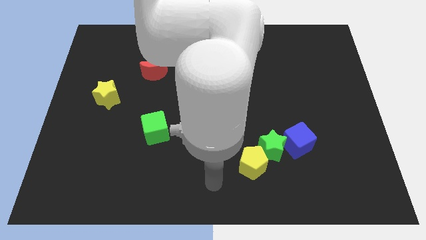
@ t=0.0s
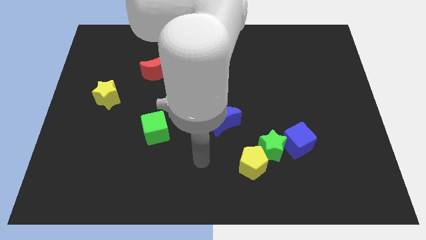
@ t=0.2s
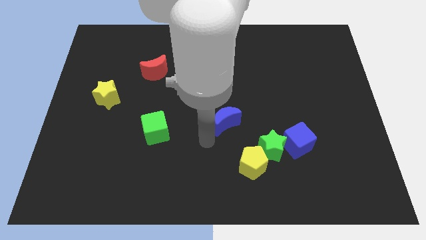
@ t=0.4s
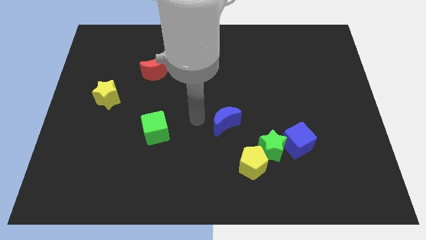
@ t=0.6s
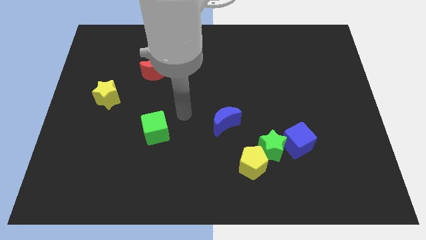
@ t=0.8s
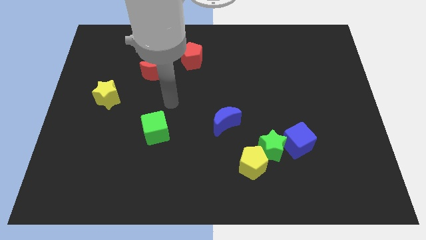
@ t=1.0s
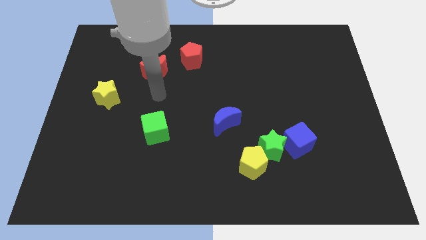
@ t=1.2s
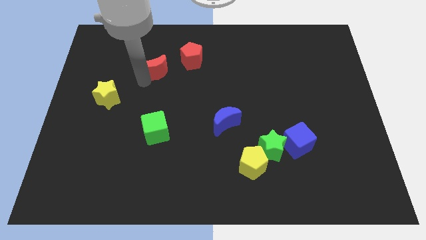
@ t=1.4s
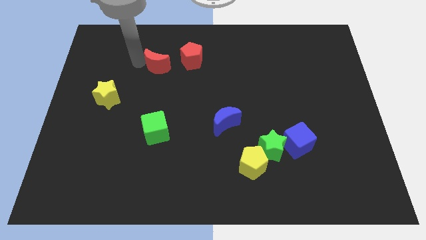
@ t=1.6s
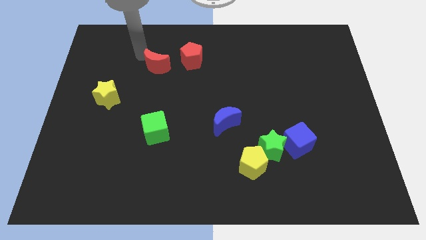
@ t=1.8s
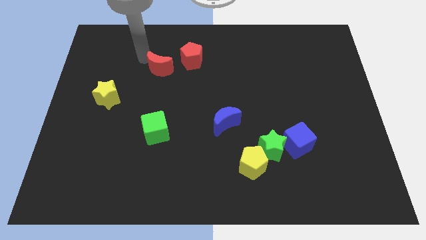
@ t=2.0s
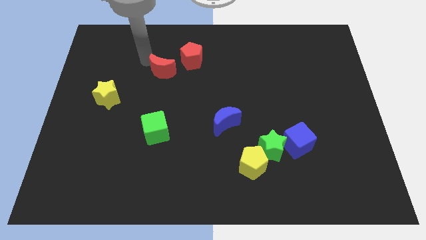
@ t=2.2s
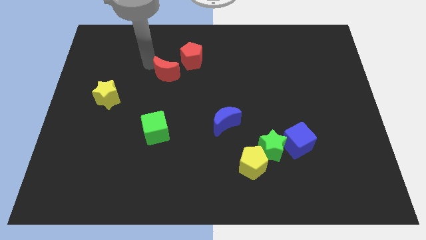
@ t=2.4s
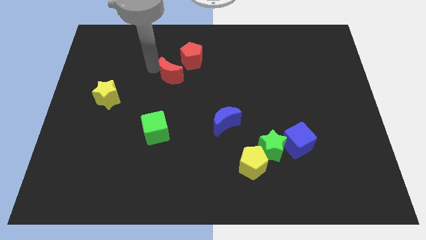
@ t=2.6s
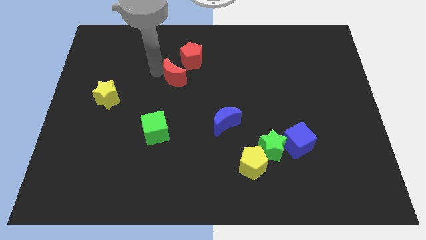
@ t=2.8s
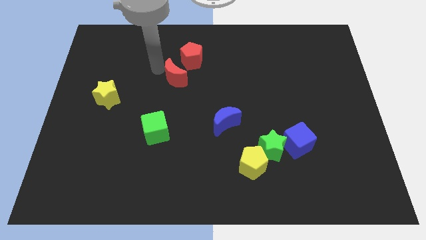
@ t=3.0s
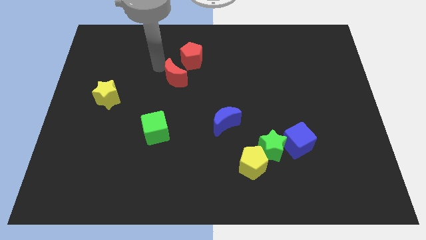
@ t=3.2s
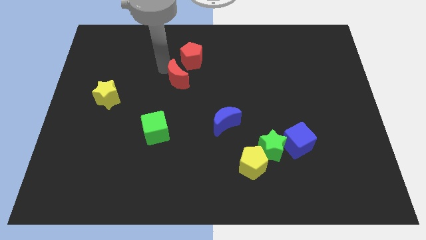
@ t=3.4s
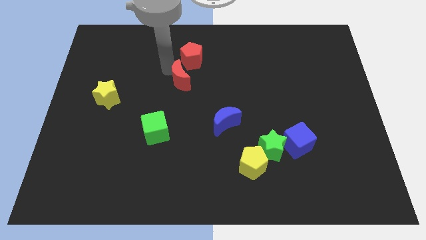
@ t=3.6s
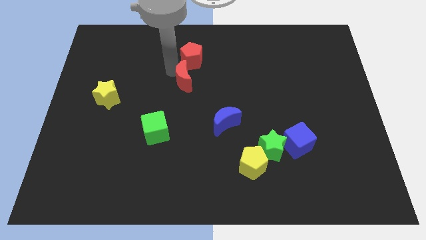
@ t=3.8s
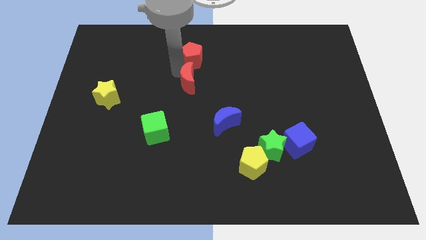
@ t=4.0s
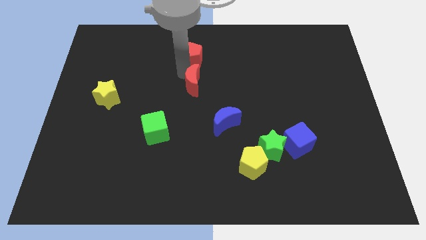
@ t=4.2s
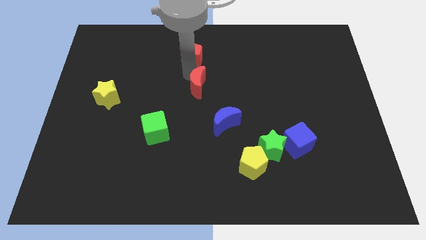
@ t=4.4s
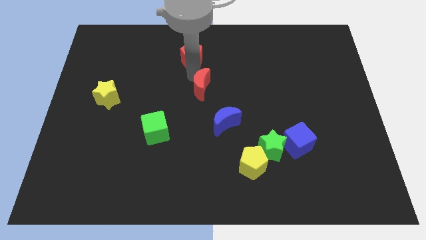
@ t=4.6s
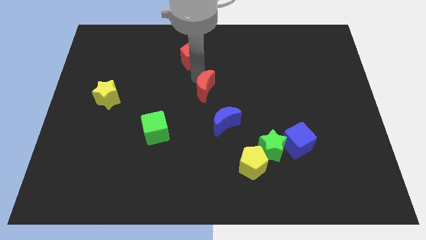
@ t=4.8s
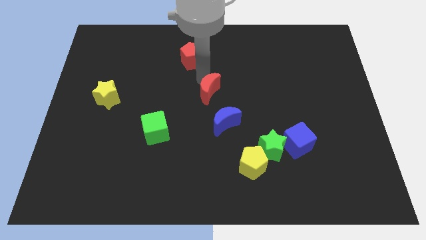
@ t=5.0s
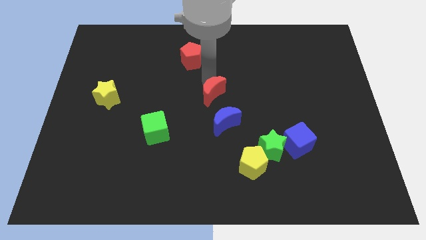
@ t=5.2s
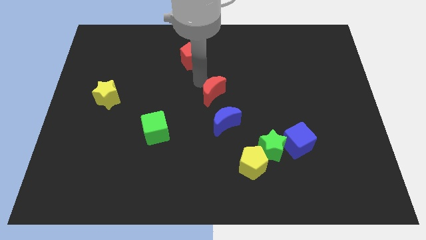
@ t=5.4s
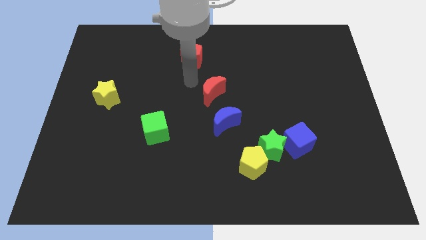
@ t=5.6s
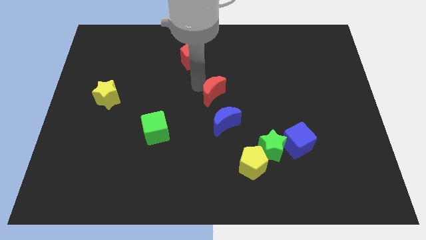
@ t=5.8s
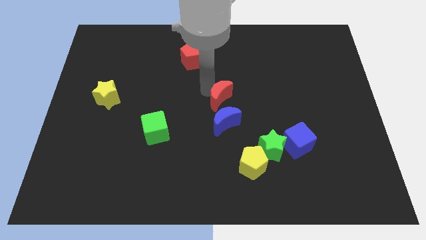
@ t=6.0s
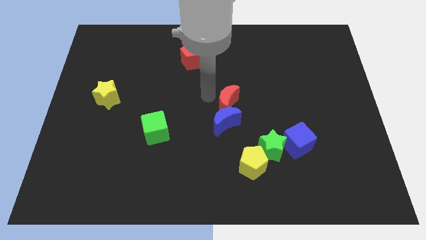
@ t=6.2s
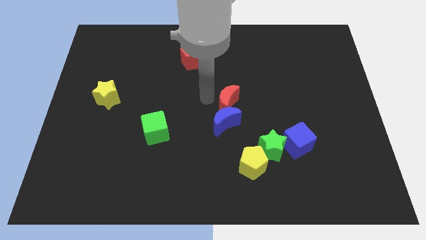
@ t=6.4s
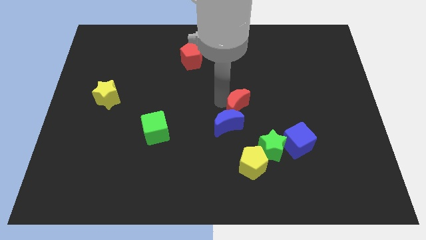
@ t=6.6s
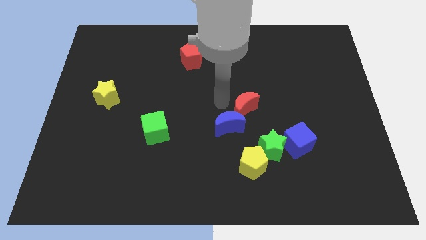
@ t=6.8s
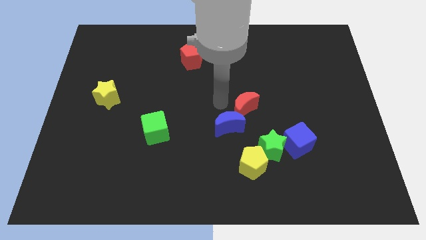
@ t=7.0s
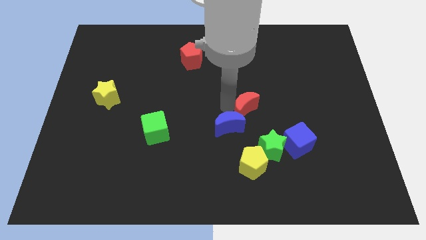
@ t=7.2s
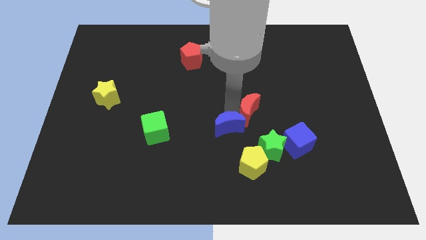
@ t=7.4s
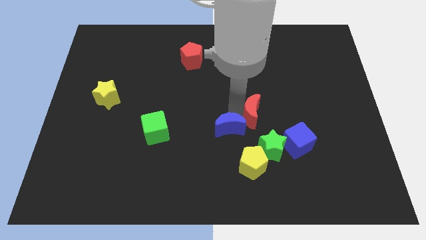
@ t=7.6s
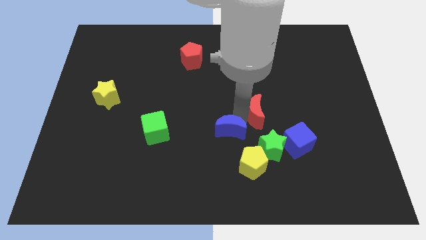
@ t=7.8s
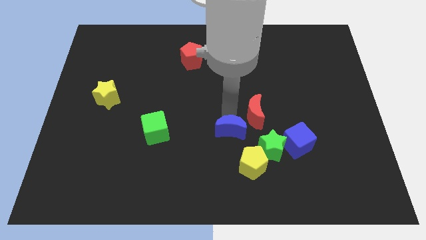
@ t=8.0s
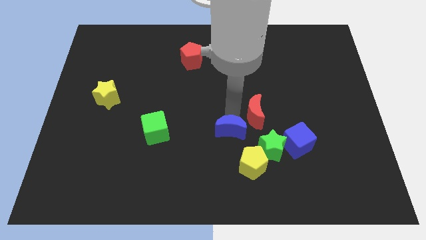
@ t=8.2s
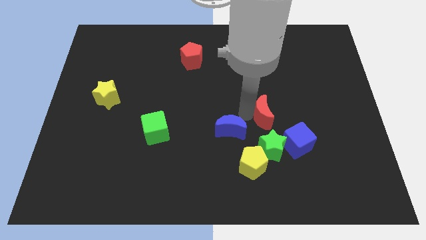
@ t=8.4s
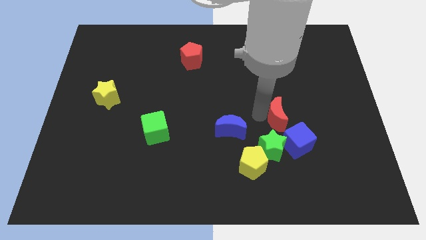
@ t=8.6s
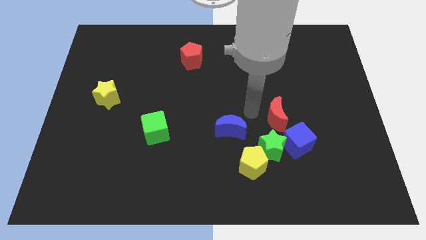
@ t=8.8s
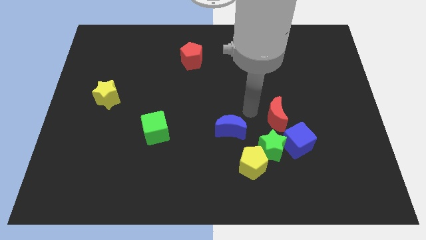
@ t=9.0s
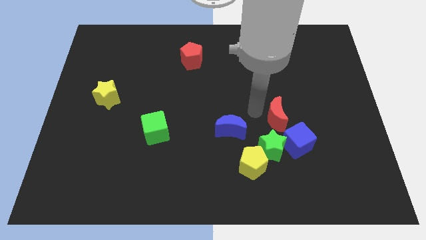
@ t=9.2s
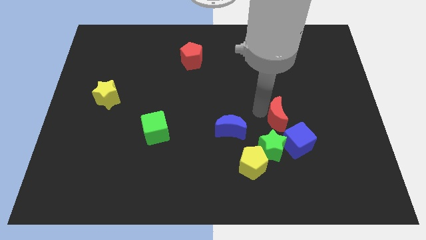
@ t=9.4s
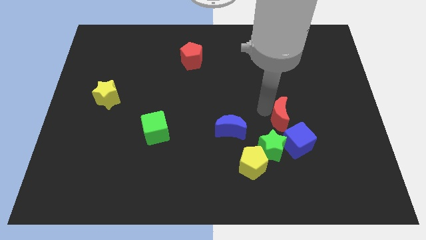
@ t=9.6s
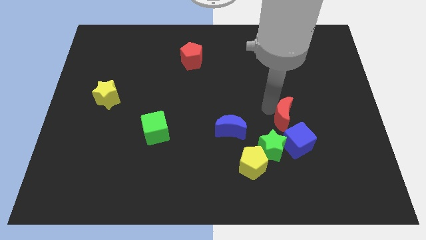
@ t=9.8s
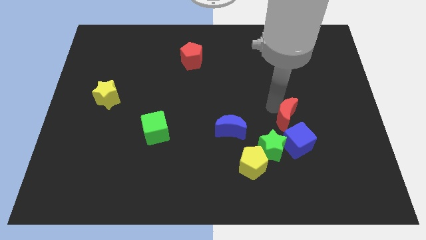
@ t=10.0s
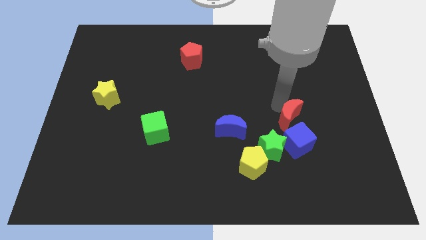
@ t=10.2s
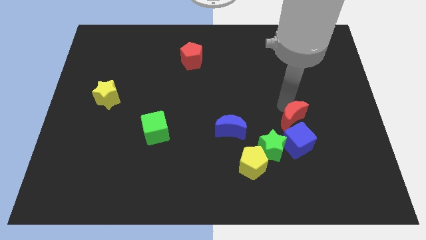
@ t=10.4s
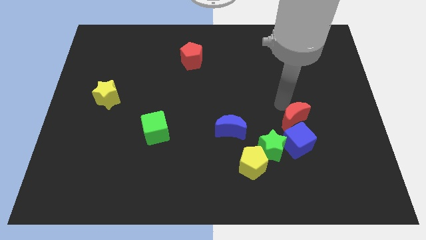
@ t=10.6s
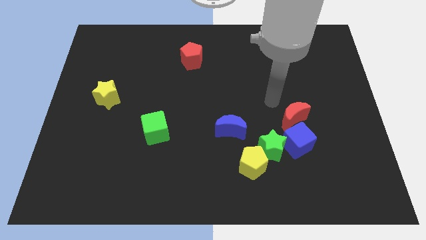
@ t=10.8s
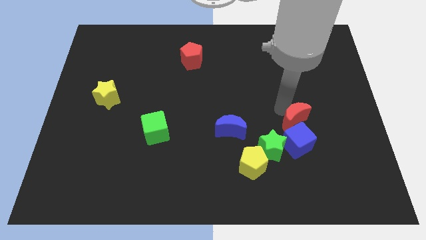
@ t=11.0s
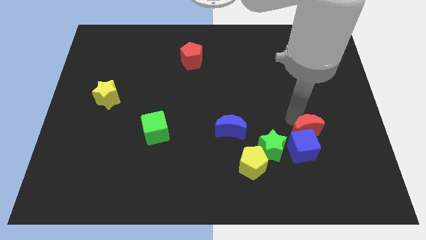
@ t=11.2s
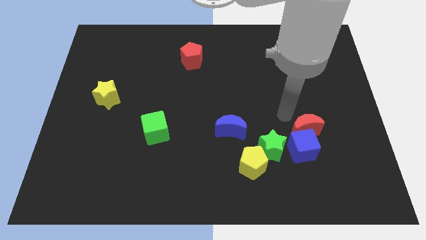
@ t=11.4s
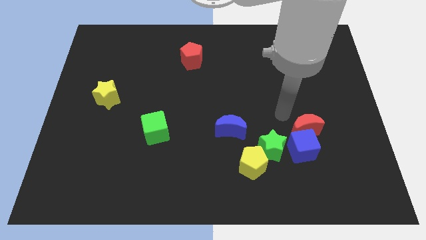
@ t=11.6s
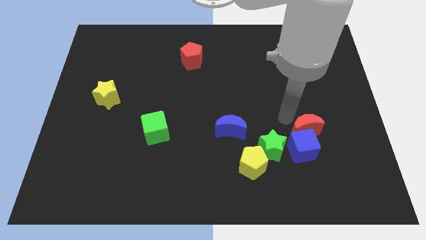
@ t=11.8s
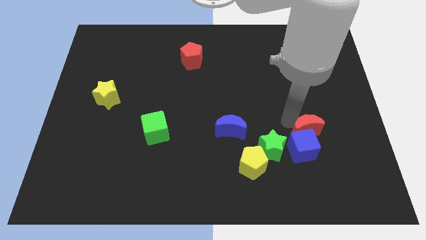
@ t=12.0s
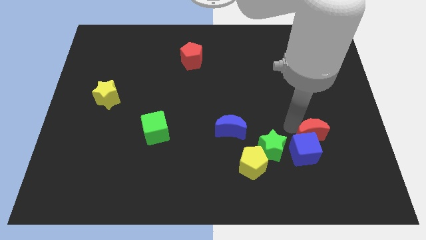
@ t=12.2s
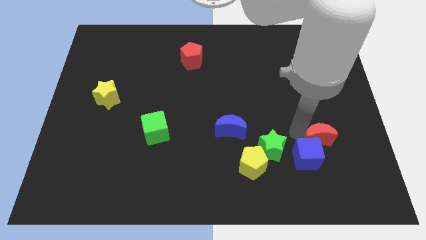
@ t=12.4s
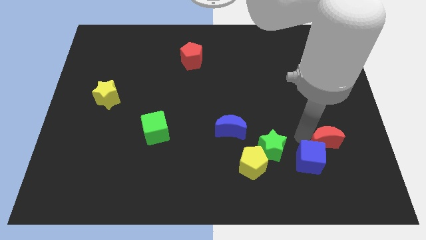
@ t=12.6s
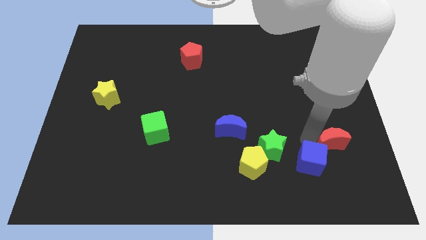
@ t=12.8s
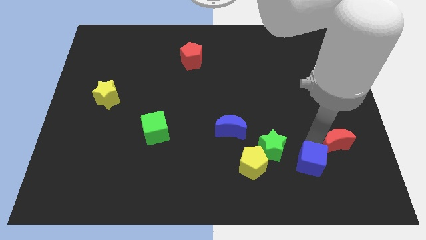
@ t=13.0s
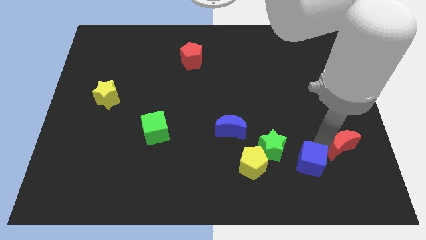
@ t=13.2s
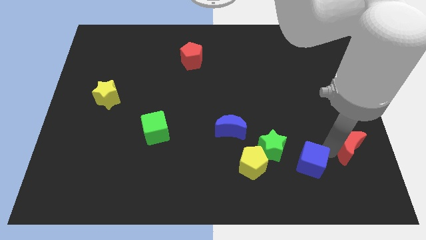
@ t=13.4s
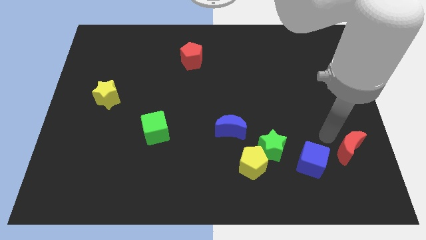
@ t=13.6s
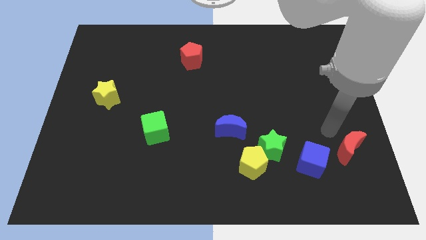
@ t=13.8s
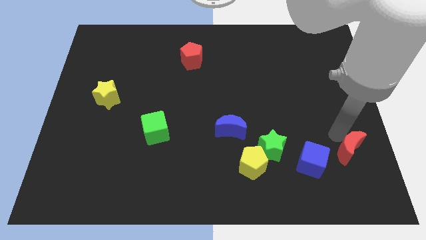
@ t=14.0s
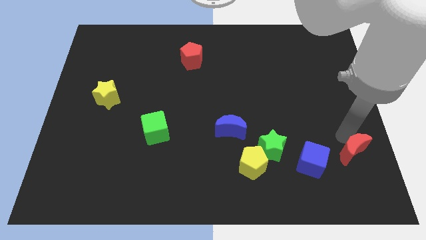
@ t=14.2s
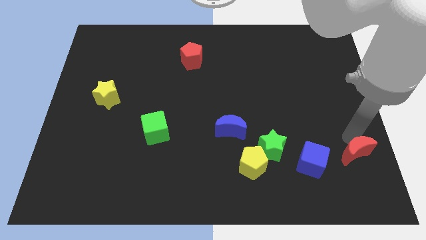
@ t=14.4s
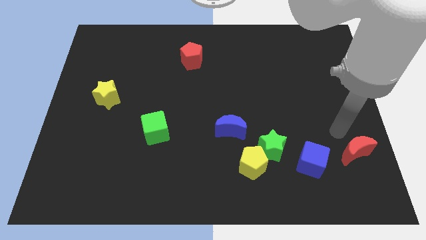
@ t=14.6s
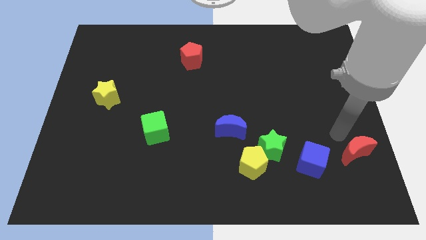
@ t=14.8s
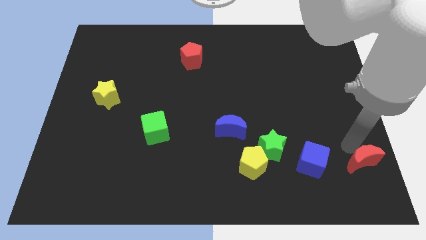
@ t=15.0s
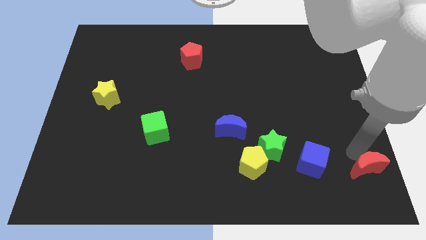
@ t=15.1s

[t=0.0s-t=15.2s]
push the red moon to the bottom right

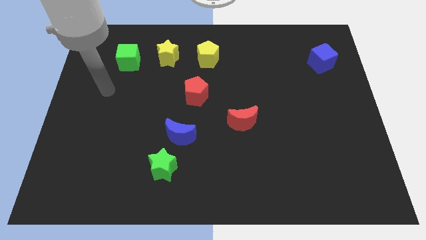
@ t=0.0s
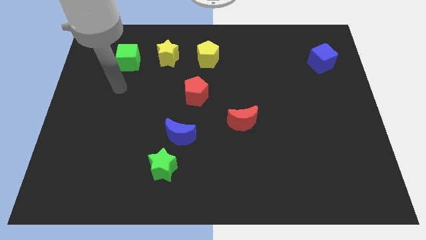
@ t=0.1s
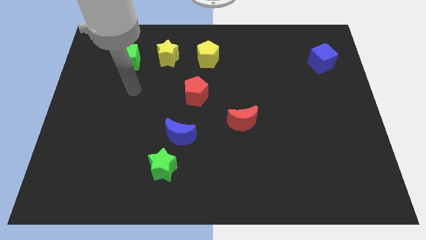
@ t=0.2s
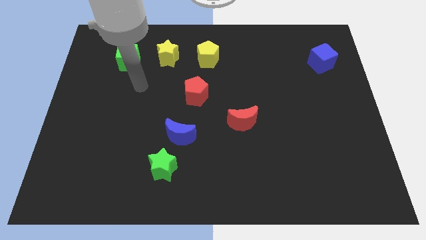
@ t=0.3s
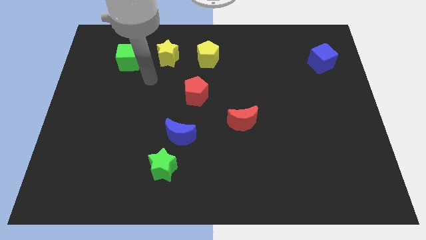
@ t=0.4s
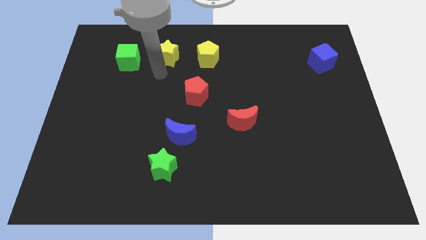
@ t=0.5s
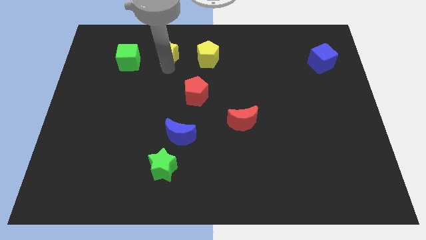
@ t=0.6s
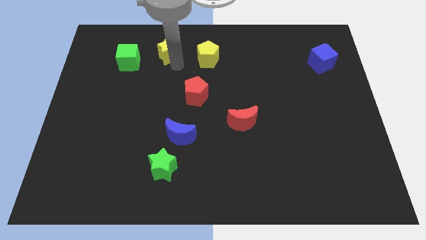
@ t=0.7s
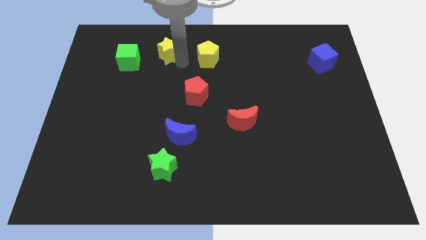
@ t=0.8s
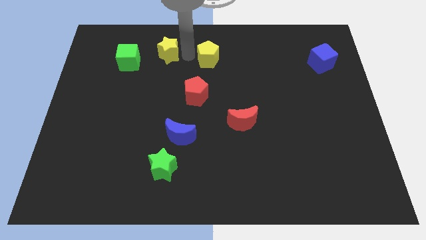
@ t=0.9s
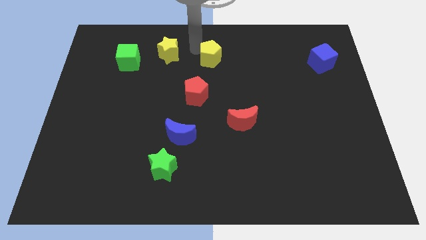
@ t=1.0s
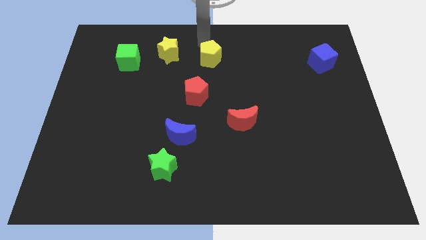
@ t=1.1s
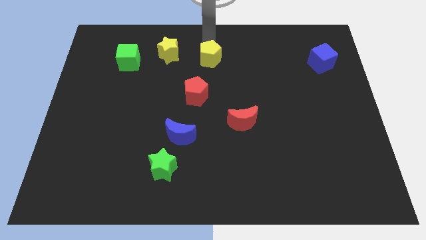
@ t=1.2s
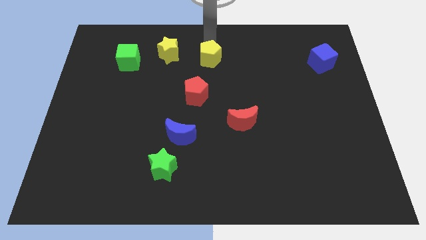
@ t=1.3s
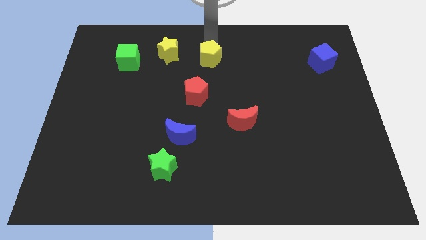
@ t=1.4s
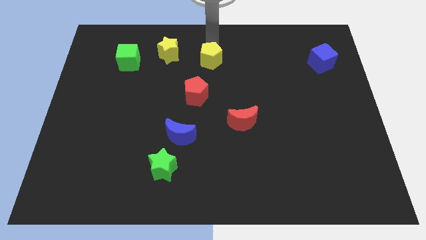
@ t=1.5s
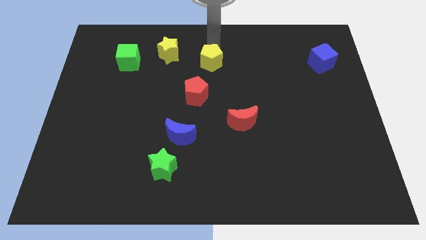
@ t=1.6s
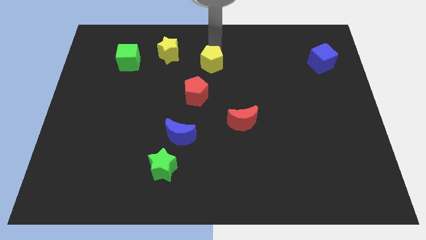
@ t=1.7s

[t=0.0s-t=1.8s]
move the yellow pentagon to the center
